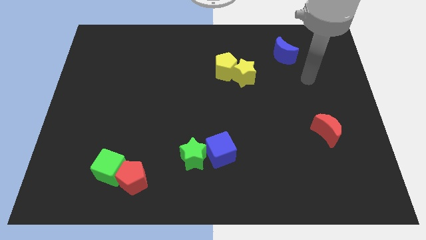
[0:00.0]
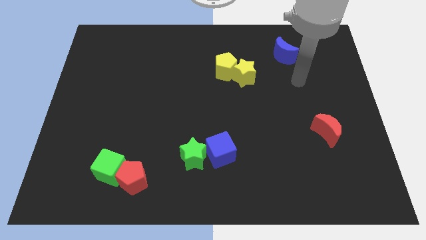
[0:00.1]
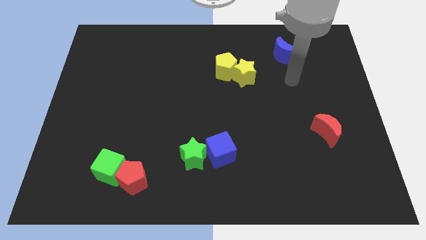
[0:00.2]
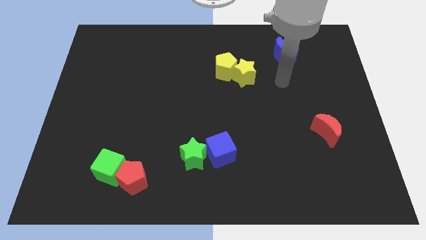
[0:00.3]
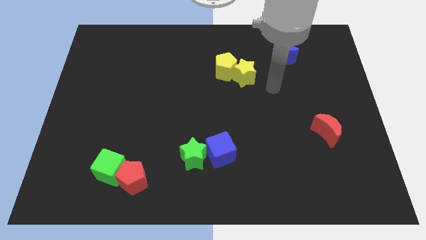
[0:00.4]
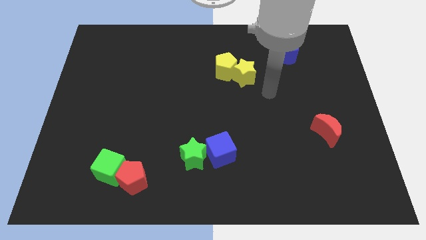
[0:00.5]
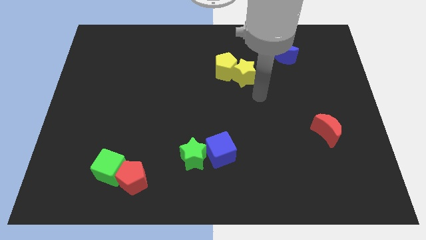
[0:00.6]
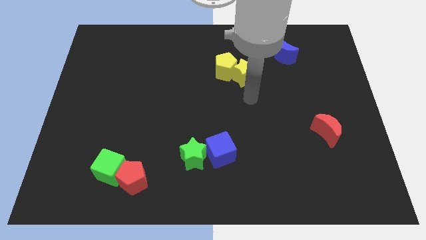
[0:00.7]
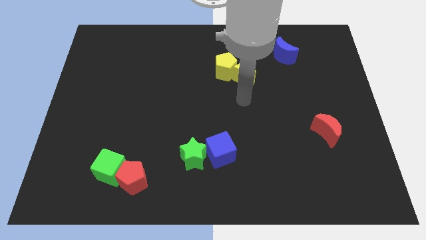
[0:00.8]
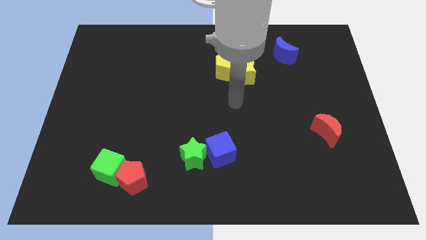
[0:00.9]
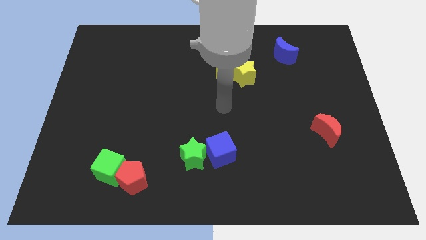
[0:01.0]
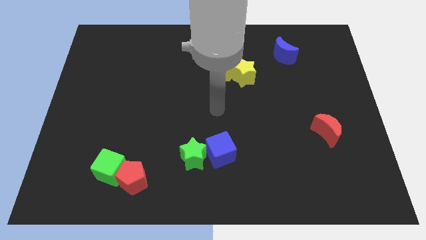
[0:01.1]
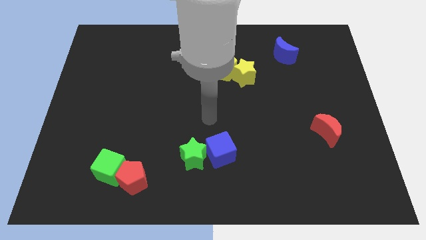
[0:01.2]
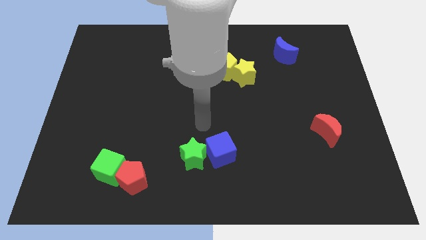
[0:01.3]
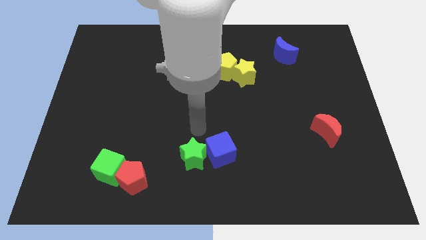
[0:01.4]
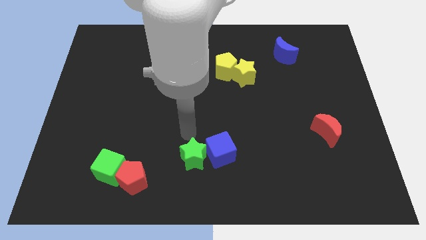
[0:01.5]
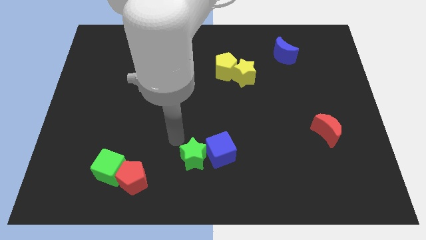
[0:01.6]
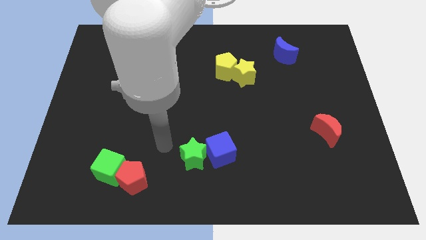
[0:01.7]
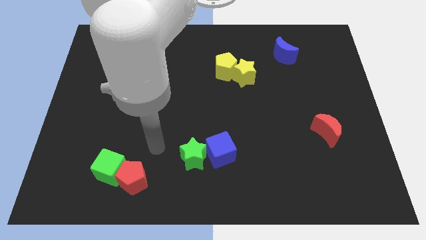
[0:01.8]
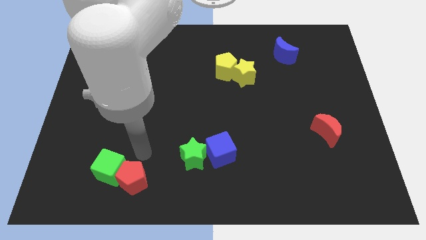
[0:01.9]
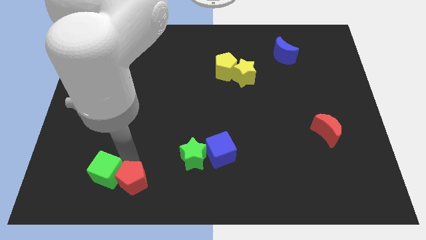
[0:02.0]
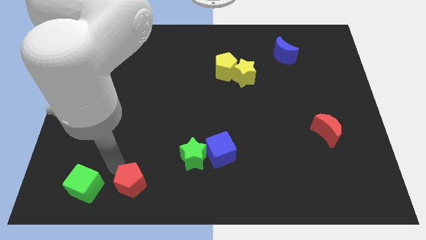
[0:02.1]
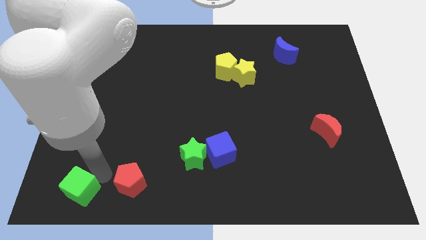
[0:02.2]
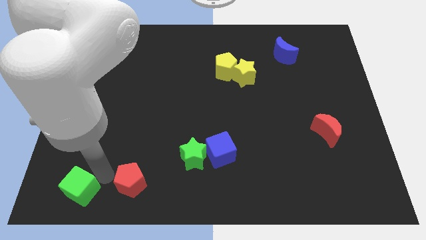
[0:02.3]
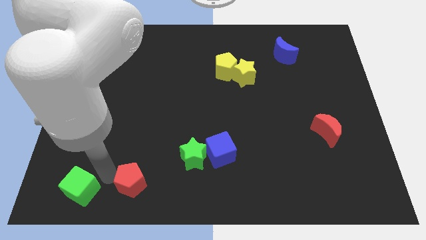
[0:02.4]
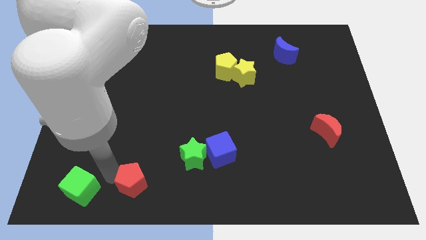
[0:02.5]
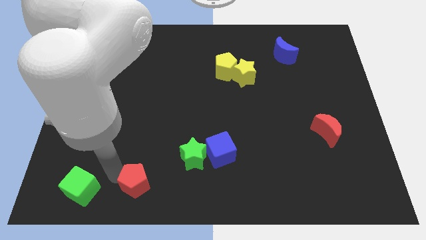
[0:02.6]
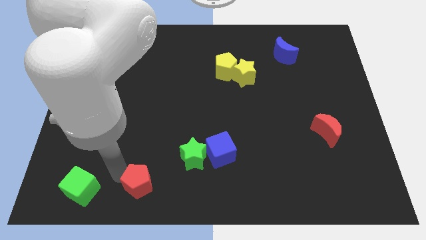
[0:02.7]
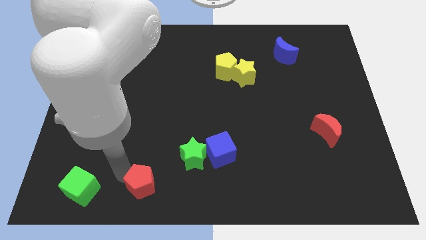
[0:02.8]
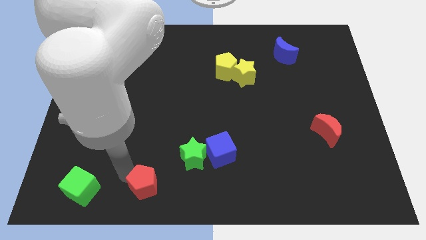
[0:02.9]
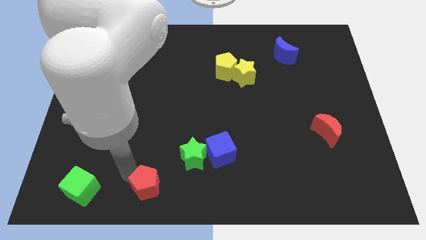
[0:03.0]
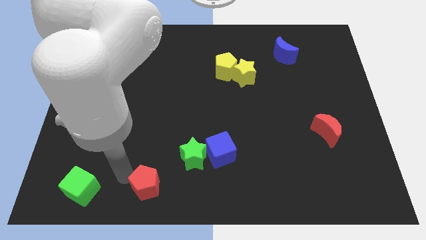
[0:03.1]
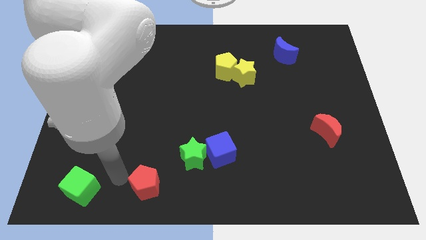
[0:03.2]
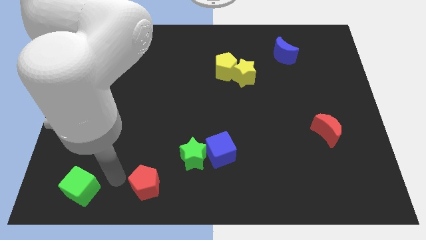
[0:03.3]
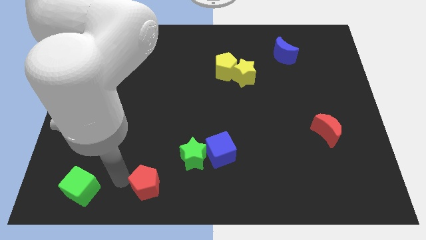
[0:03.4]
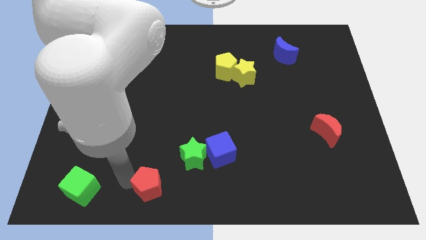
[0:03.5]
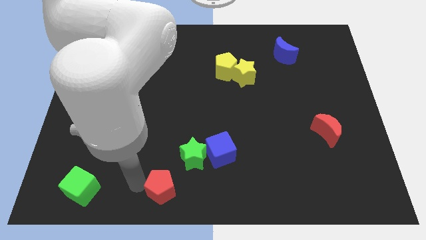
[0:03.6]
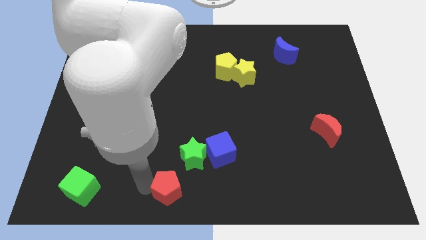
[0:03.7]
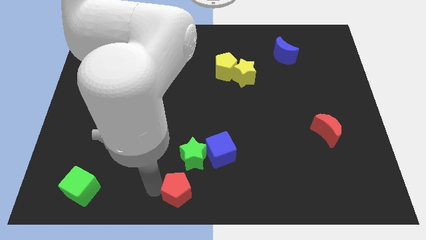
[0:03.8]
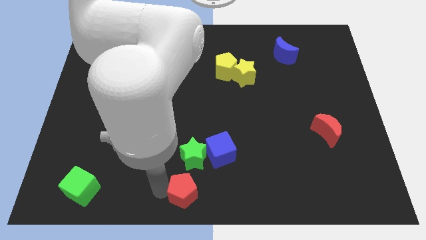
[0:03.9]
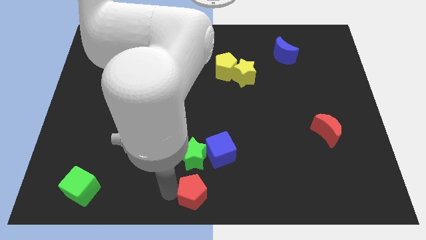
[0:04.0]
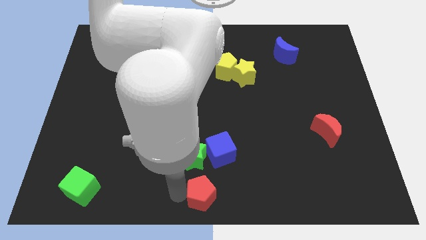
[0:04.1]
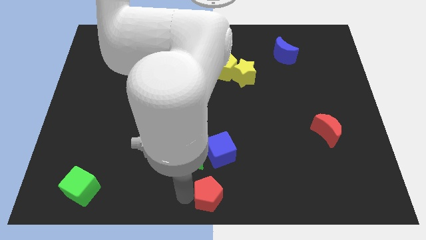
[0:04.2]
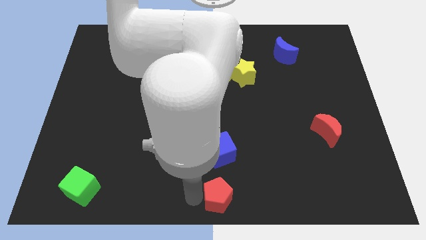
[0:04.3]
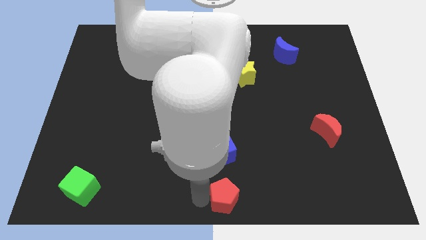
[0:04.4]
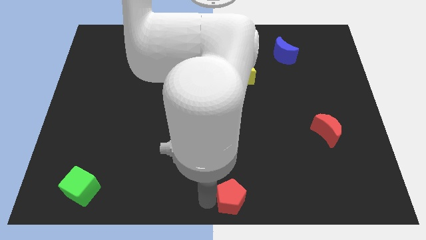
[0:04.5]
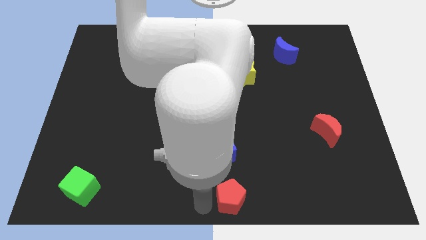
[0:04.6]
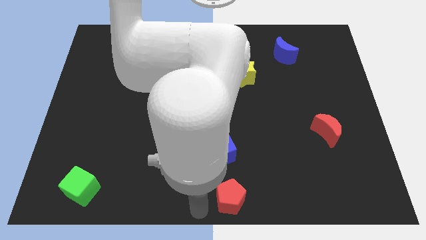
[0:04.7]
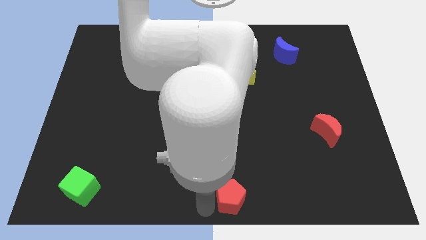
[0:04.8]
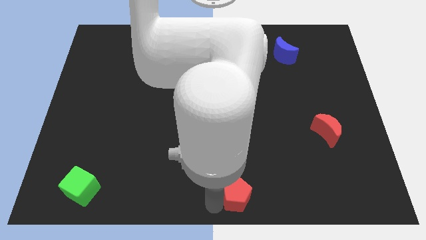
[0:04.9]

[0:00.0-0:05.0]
push the red pentagon right

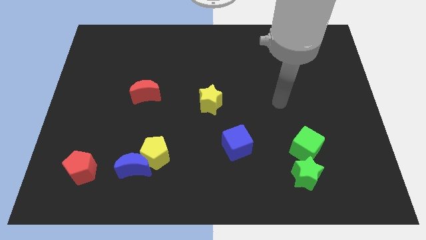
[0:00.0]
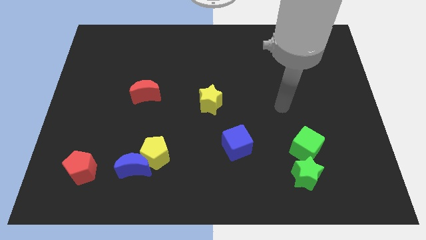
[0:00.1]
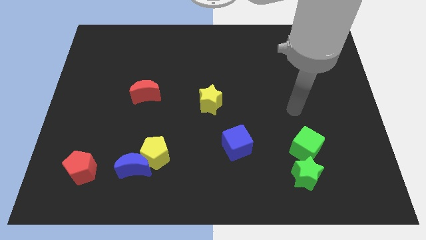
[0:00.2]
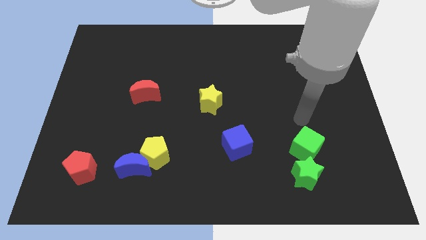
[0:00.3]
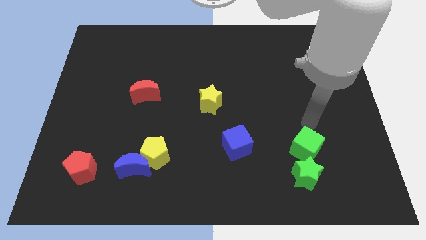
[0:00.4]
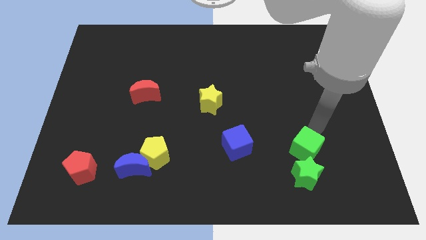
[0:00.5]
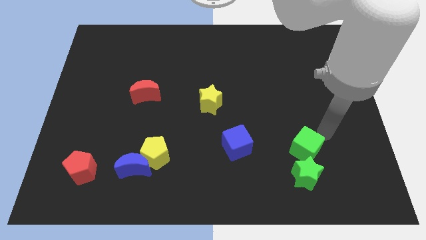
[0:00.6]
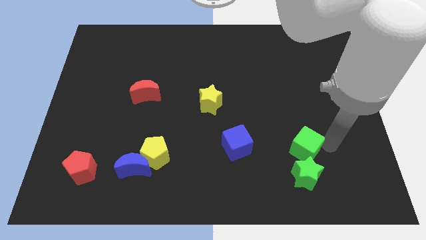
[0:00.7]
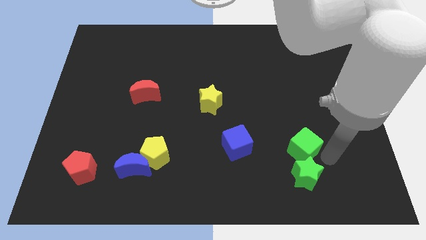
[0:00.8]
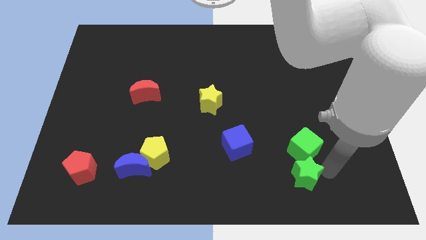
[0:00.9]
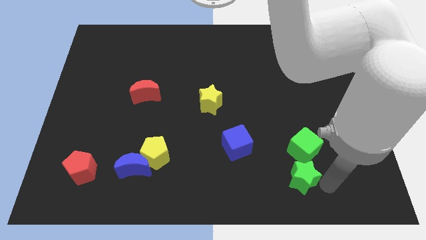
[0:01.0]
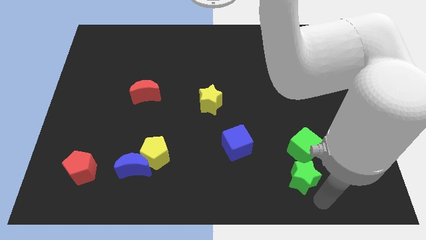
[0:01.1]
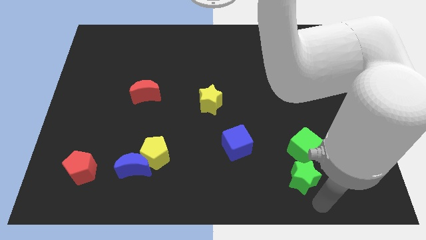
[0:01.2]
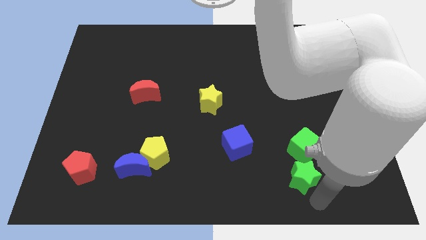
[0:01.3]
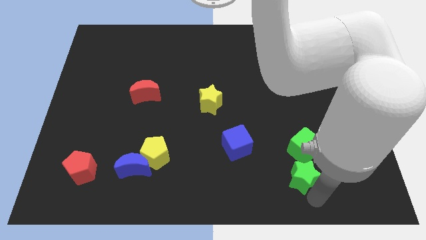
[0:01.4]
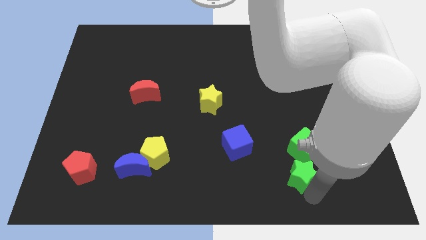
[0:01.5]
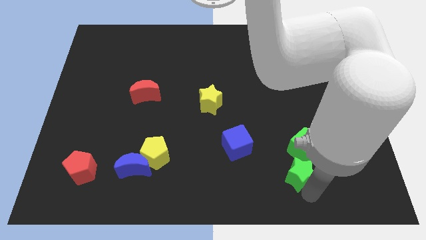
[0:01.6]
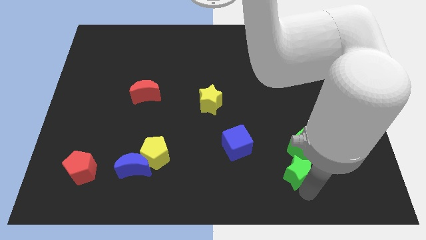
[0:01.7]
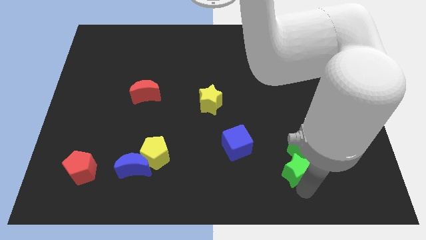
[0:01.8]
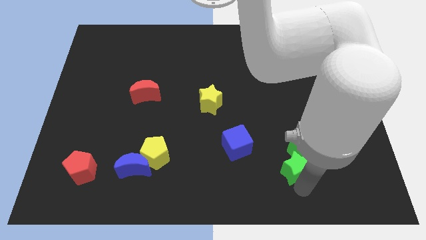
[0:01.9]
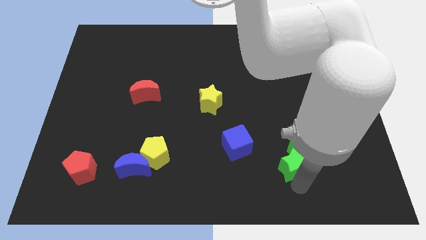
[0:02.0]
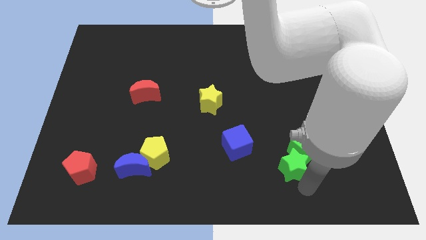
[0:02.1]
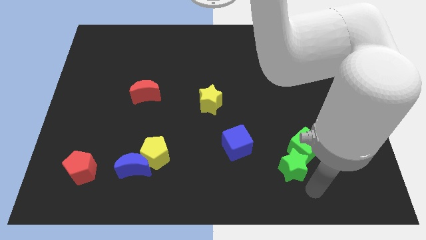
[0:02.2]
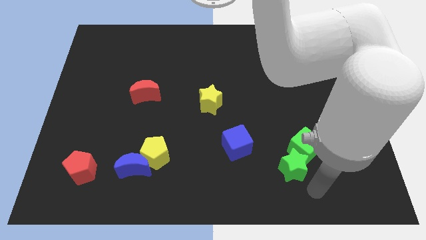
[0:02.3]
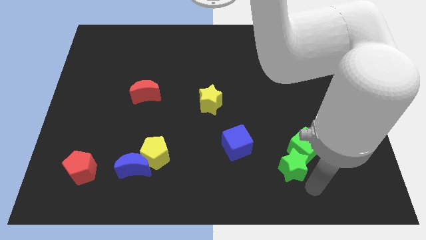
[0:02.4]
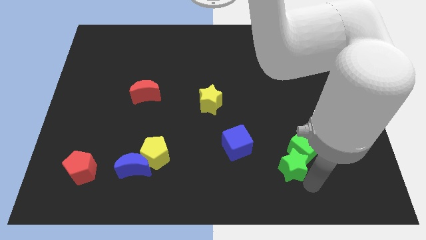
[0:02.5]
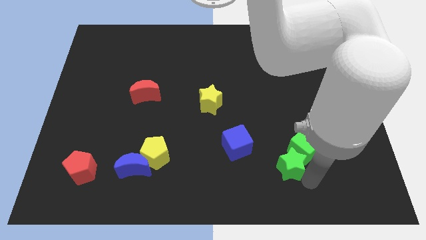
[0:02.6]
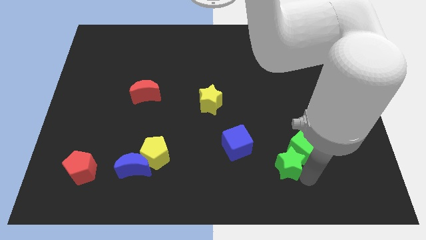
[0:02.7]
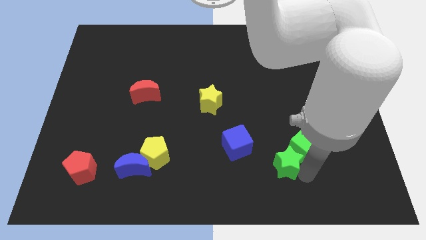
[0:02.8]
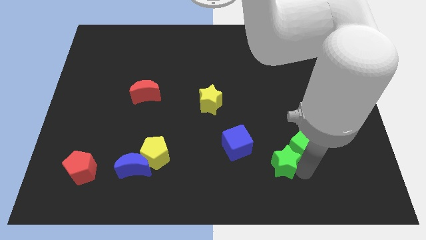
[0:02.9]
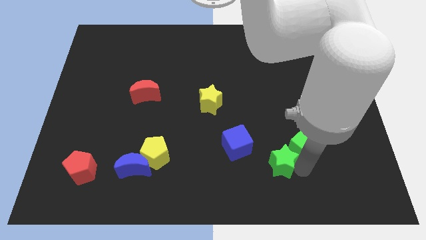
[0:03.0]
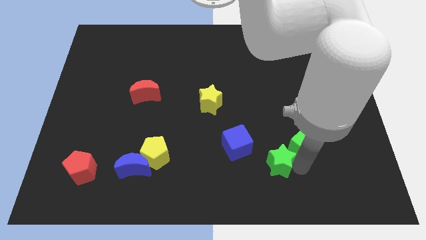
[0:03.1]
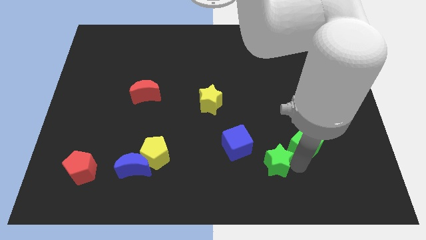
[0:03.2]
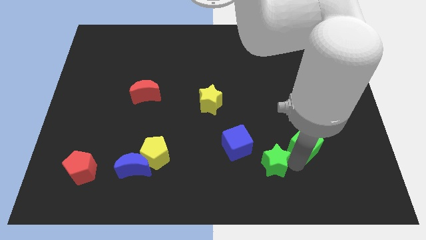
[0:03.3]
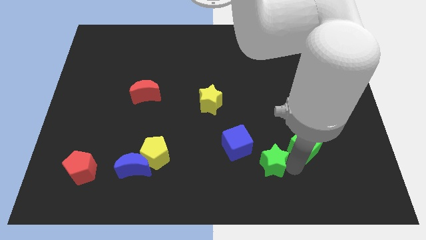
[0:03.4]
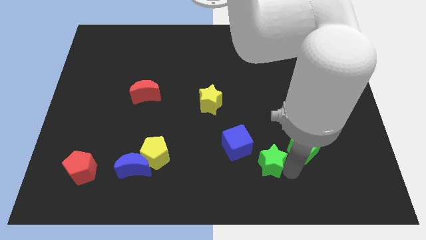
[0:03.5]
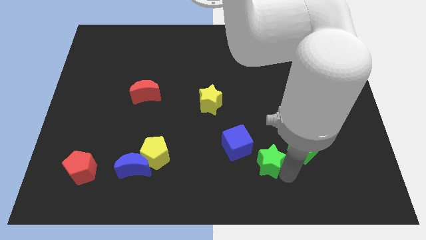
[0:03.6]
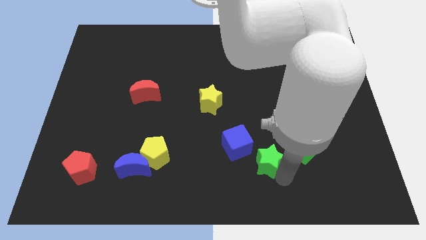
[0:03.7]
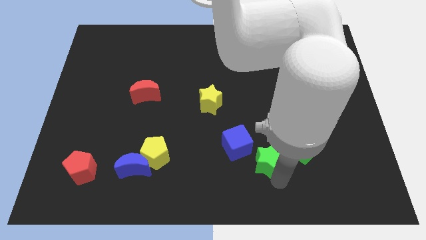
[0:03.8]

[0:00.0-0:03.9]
push the green star slightly up and to the left diagonally
